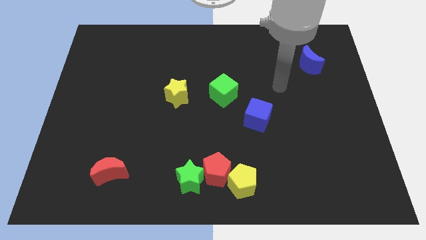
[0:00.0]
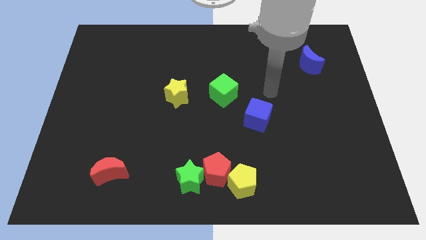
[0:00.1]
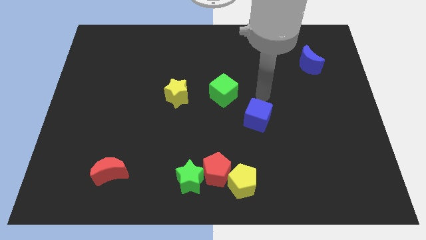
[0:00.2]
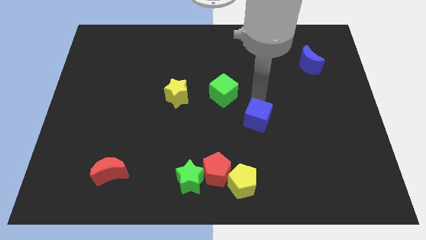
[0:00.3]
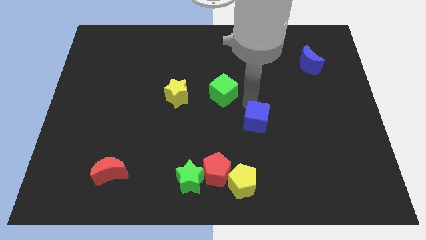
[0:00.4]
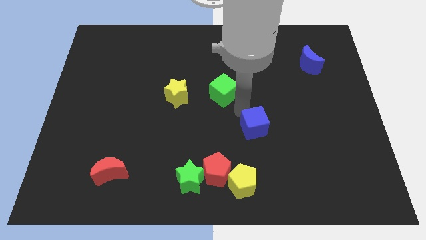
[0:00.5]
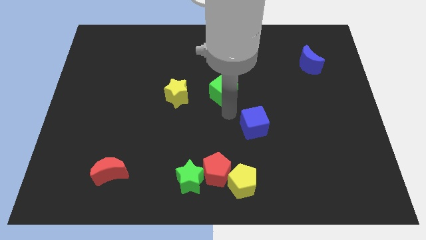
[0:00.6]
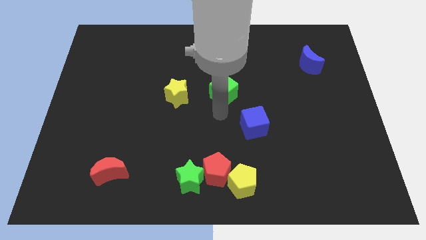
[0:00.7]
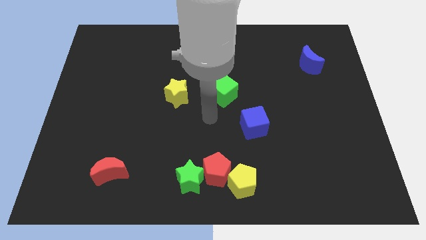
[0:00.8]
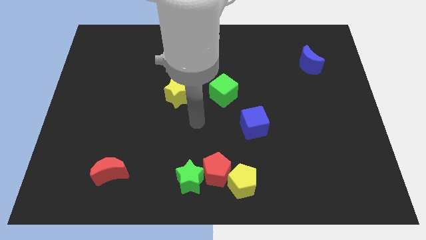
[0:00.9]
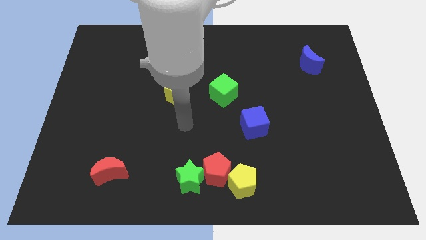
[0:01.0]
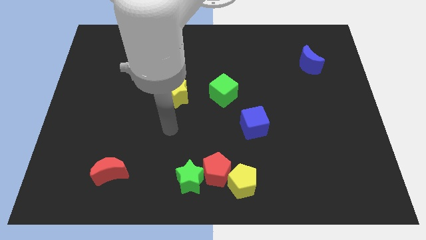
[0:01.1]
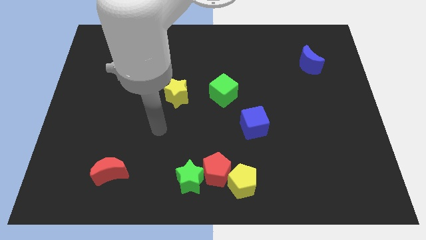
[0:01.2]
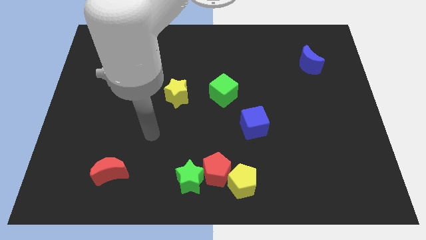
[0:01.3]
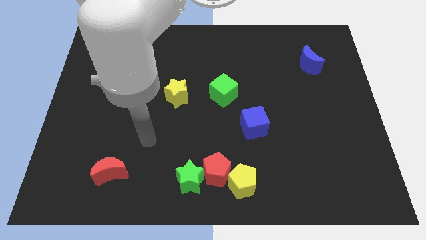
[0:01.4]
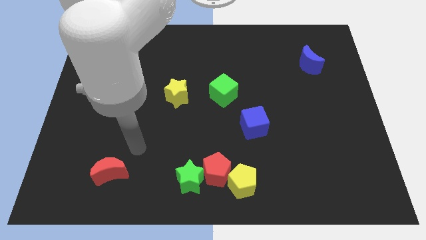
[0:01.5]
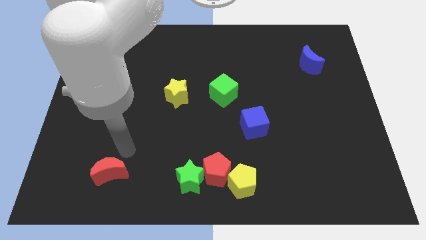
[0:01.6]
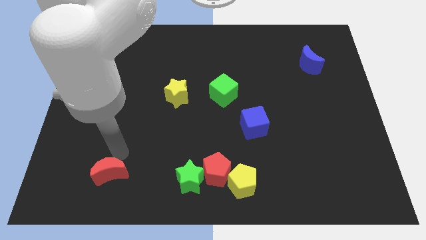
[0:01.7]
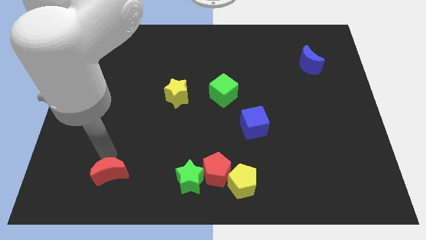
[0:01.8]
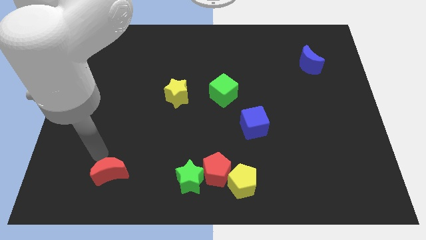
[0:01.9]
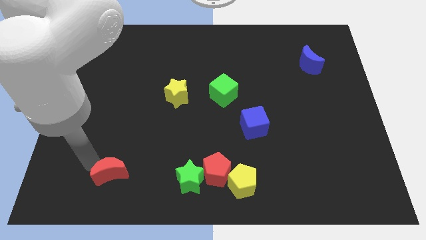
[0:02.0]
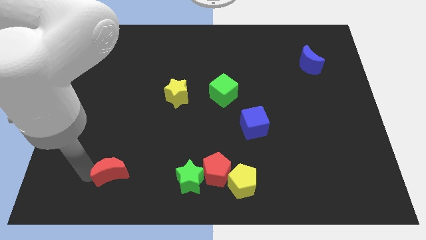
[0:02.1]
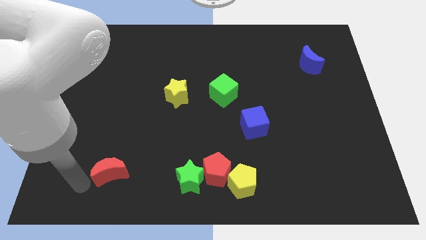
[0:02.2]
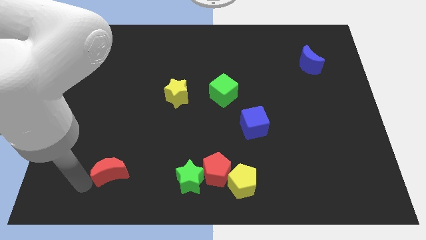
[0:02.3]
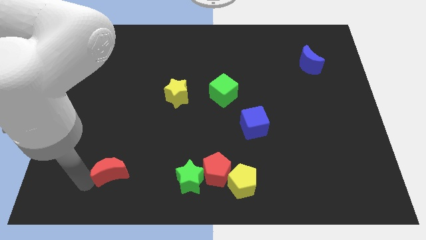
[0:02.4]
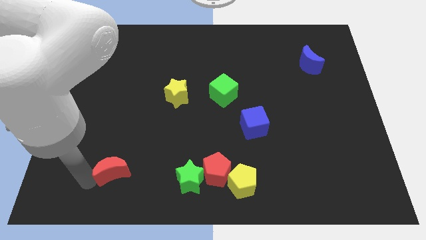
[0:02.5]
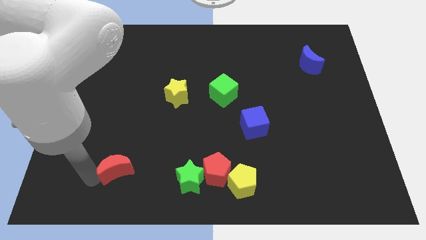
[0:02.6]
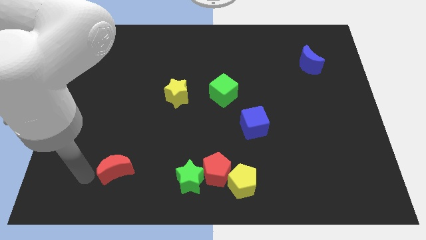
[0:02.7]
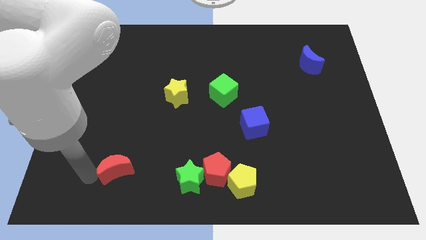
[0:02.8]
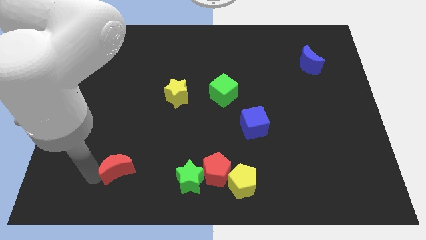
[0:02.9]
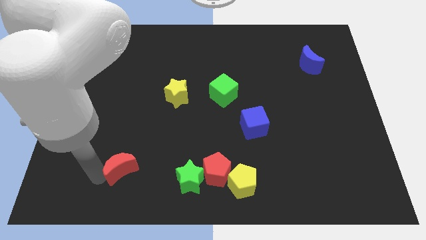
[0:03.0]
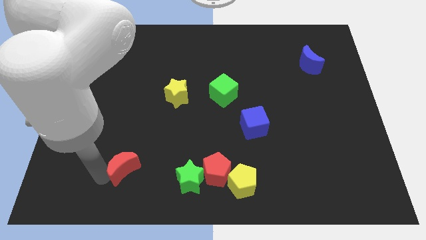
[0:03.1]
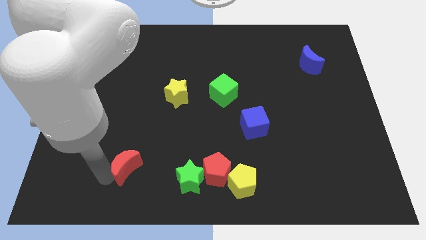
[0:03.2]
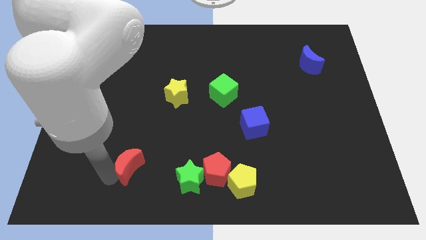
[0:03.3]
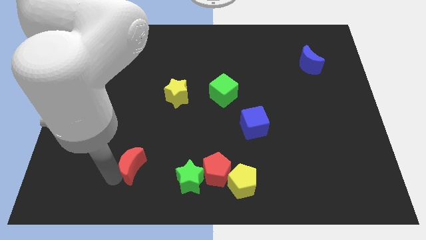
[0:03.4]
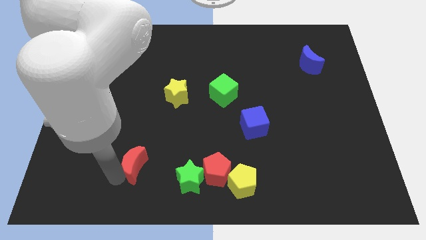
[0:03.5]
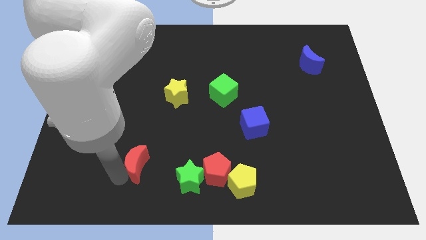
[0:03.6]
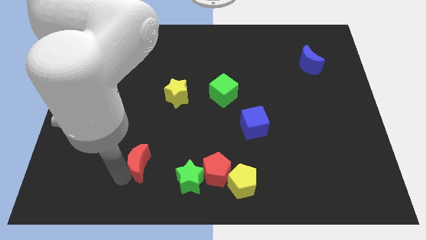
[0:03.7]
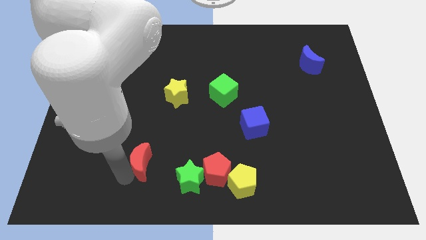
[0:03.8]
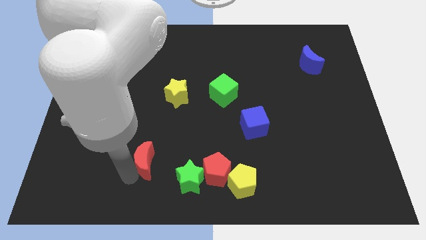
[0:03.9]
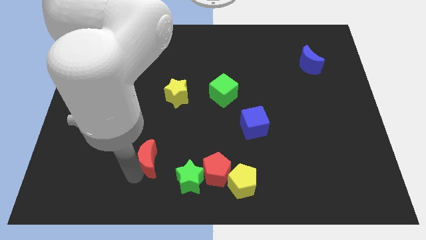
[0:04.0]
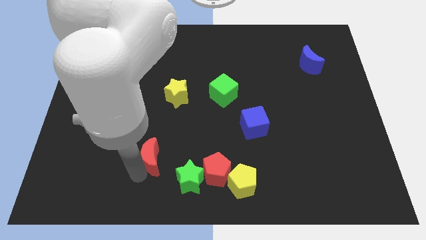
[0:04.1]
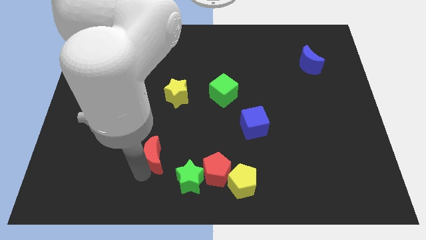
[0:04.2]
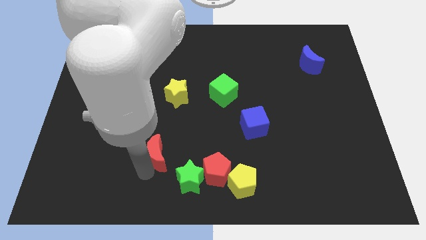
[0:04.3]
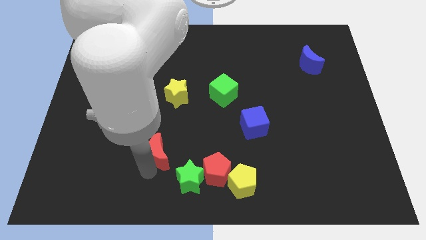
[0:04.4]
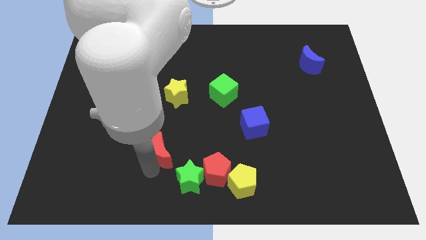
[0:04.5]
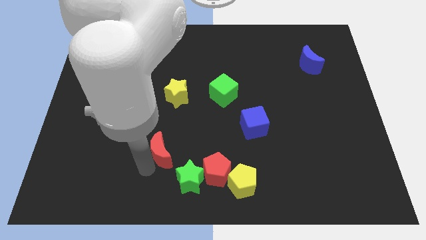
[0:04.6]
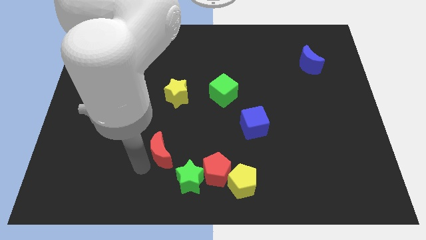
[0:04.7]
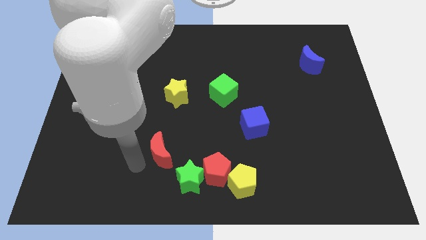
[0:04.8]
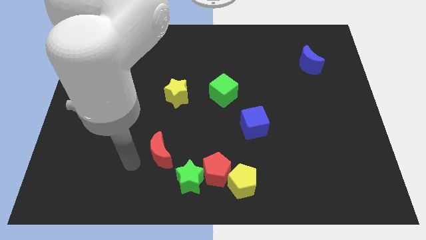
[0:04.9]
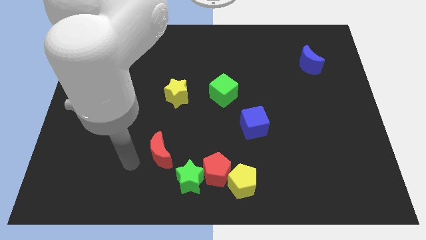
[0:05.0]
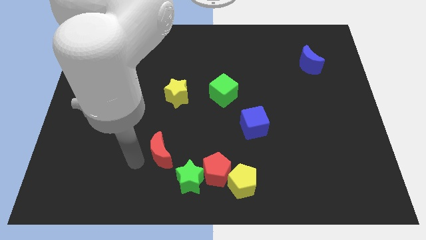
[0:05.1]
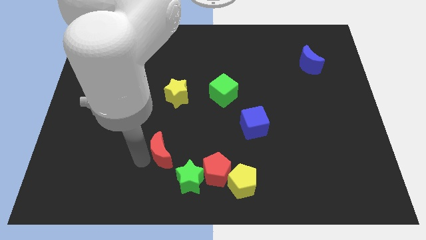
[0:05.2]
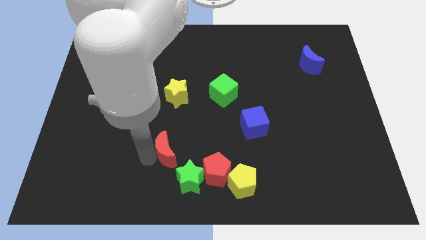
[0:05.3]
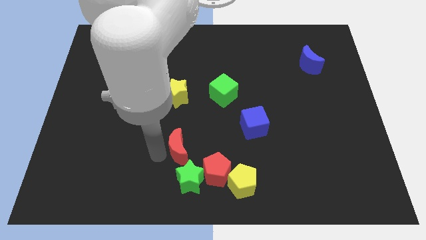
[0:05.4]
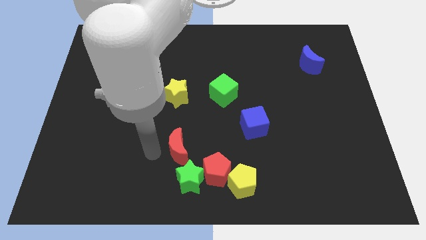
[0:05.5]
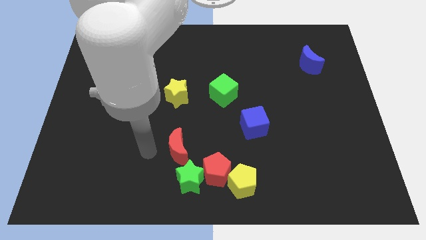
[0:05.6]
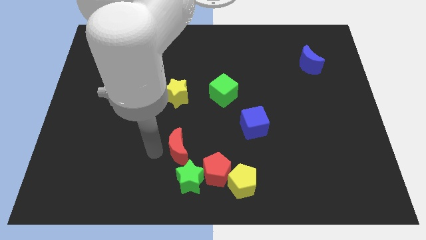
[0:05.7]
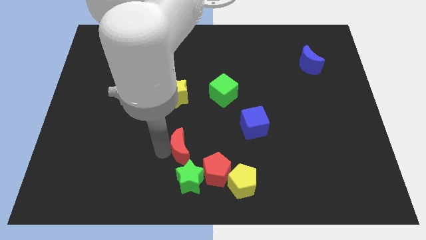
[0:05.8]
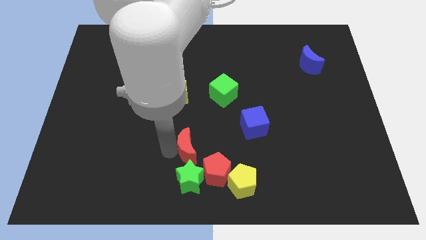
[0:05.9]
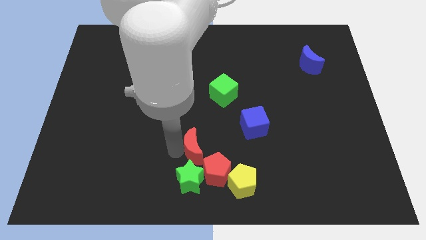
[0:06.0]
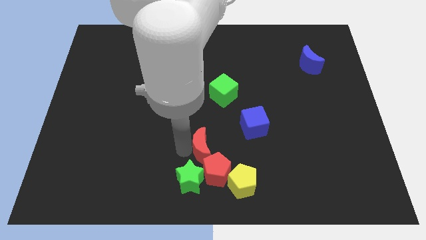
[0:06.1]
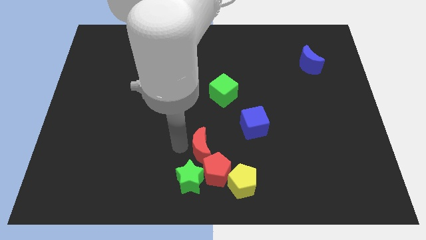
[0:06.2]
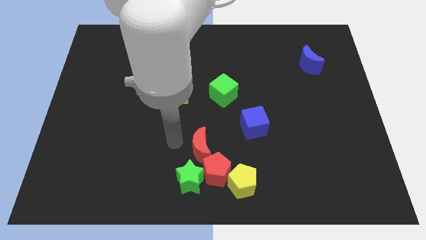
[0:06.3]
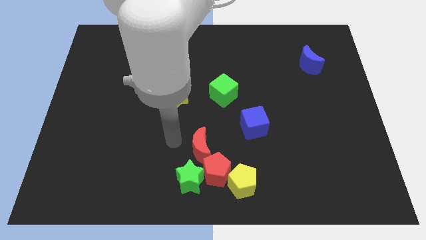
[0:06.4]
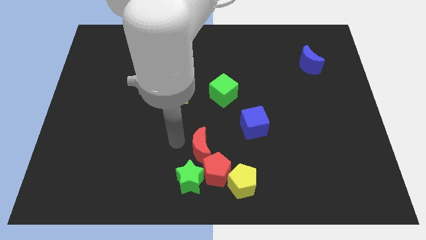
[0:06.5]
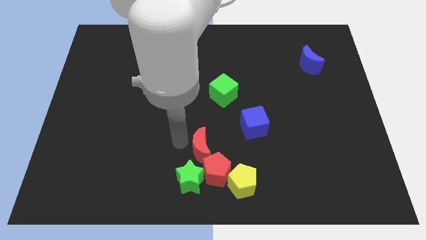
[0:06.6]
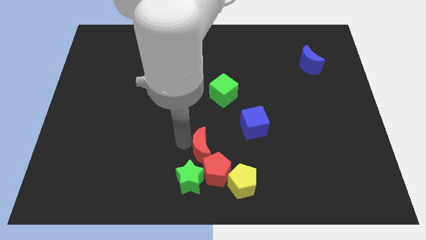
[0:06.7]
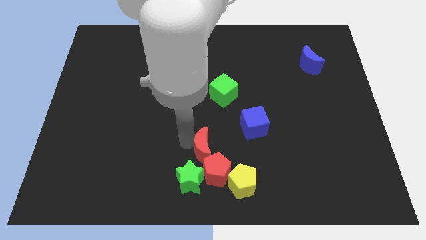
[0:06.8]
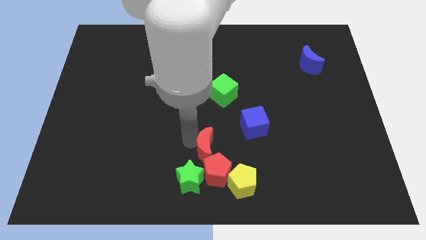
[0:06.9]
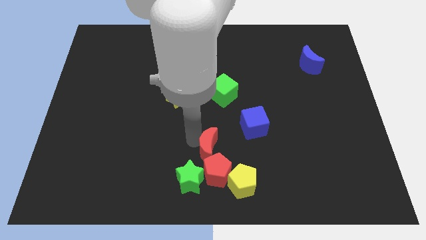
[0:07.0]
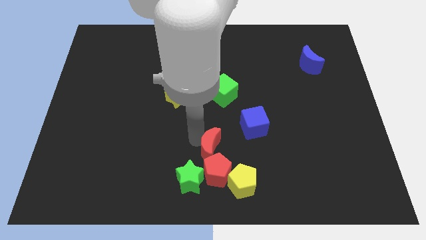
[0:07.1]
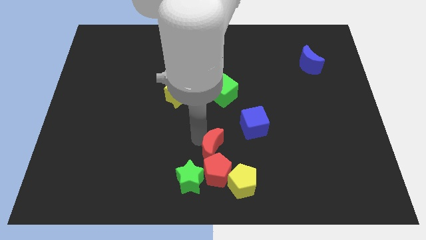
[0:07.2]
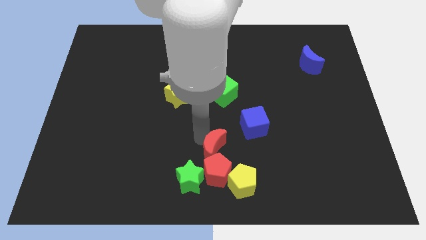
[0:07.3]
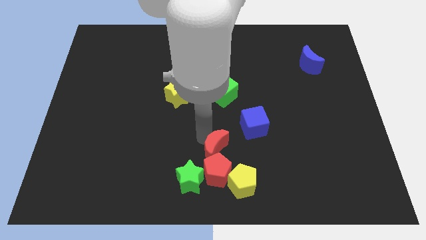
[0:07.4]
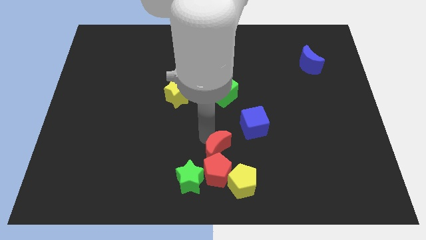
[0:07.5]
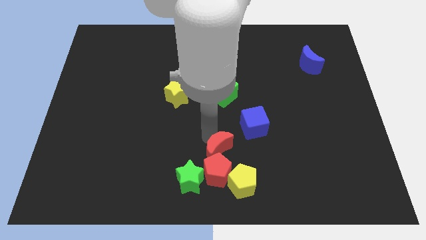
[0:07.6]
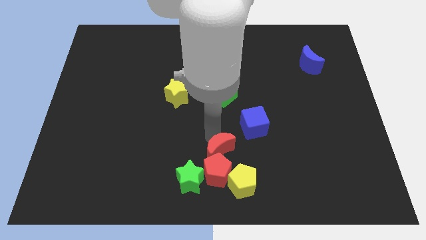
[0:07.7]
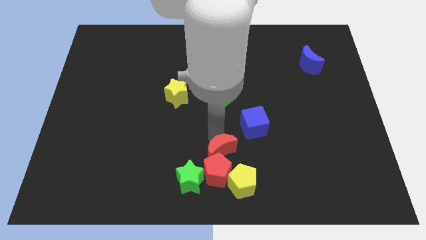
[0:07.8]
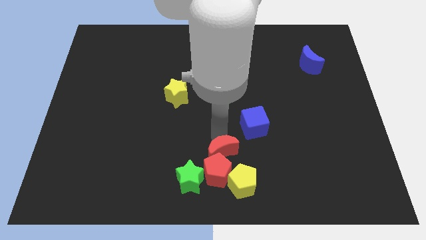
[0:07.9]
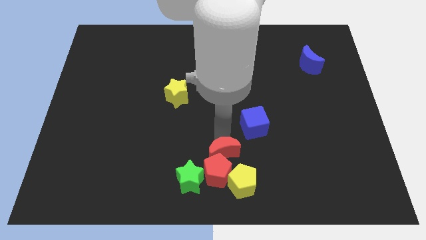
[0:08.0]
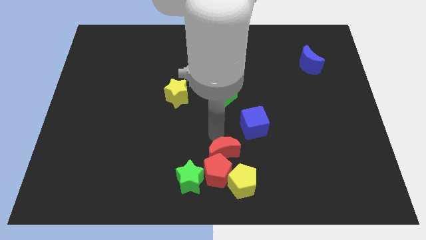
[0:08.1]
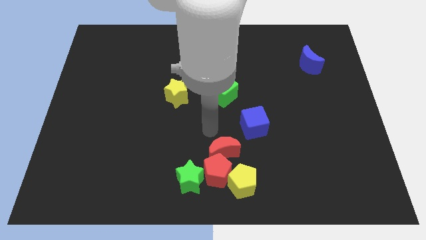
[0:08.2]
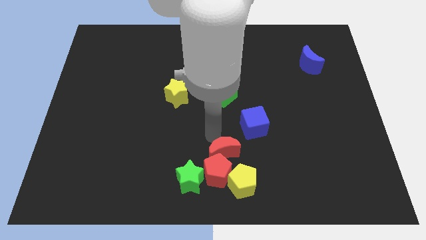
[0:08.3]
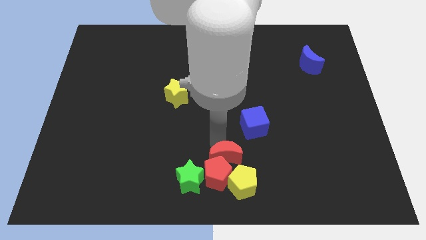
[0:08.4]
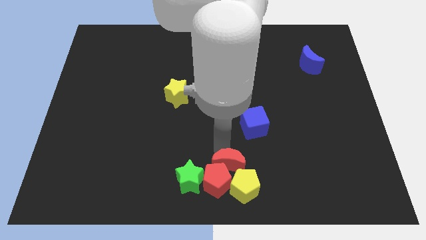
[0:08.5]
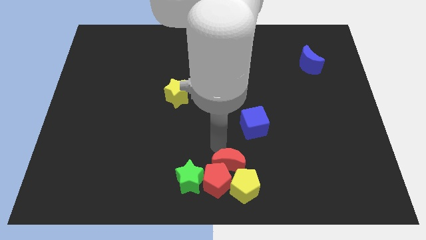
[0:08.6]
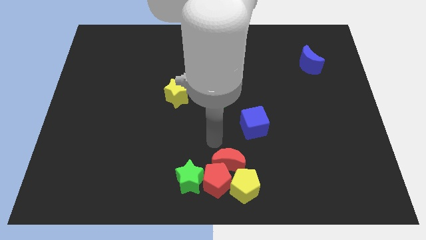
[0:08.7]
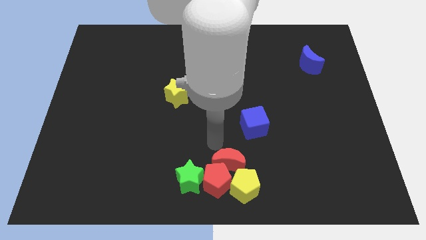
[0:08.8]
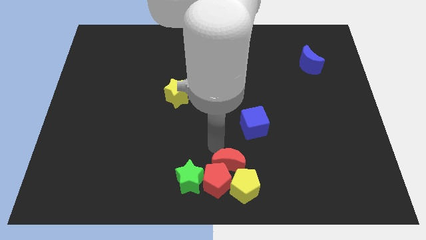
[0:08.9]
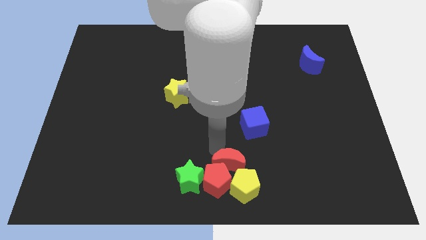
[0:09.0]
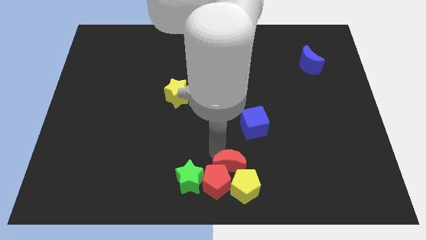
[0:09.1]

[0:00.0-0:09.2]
move the red moon towards the yellow pentagon
